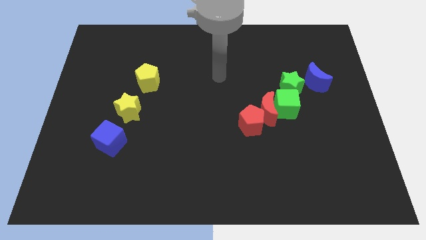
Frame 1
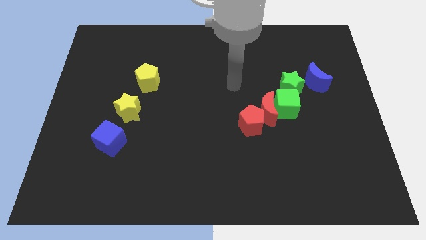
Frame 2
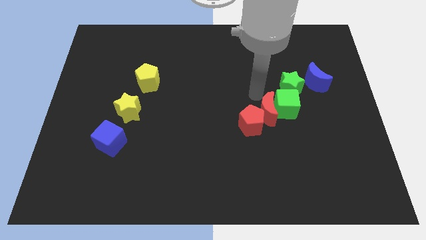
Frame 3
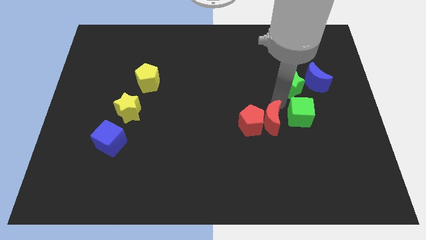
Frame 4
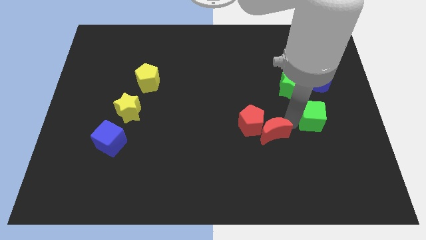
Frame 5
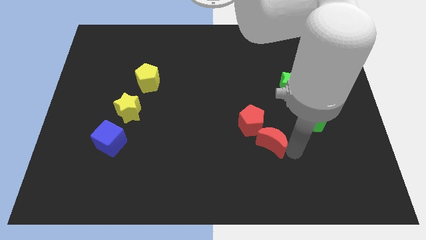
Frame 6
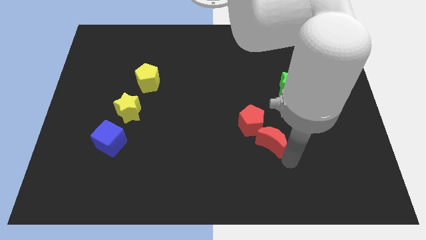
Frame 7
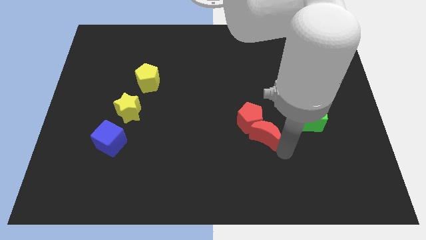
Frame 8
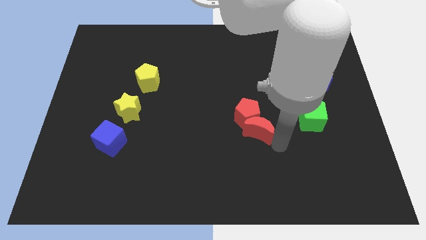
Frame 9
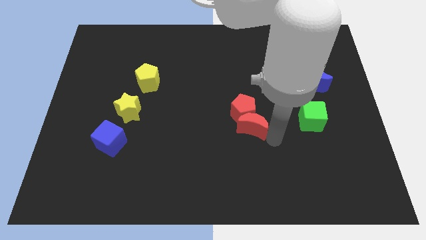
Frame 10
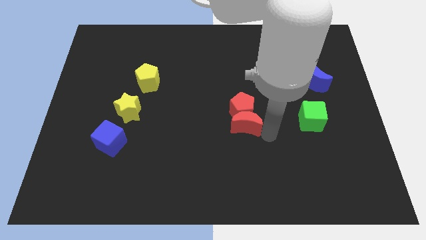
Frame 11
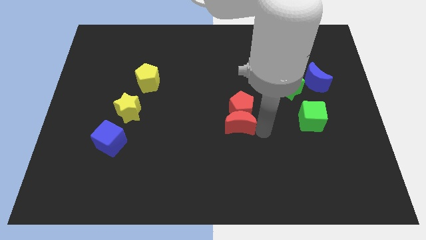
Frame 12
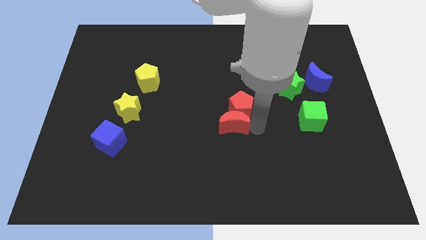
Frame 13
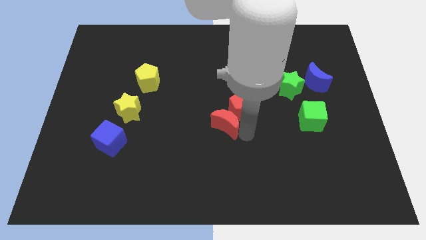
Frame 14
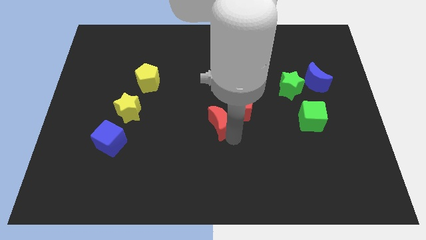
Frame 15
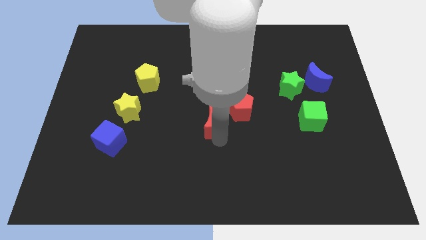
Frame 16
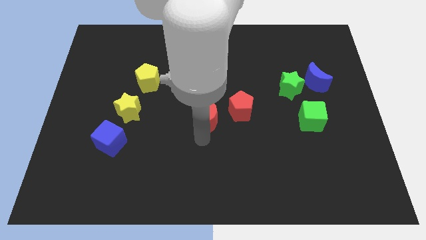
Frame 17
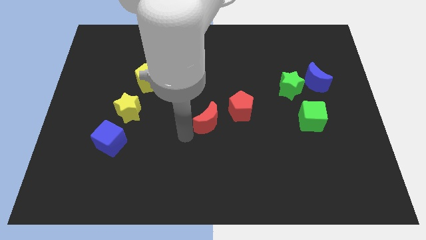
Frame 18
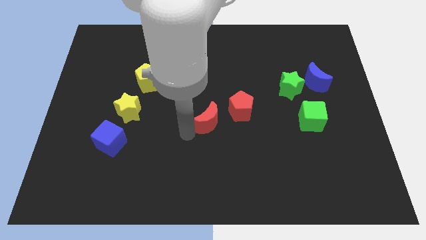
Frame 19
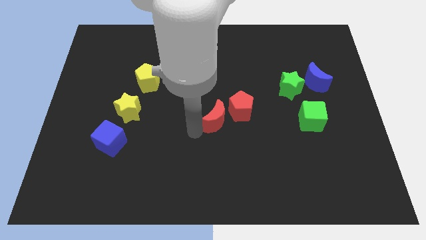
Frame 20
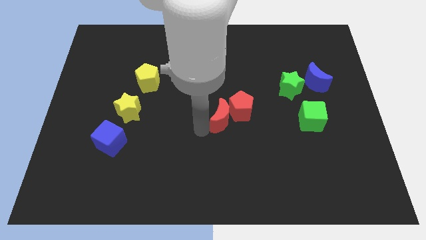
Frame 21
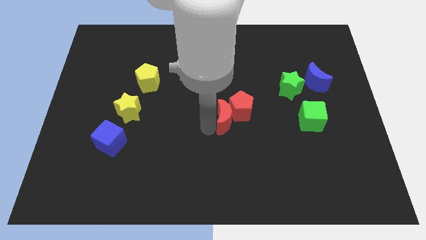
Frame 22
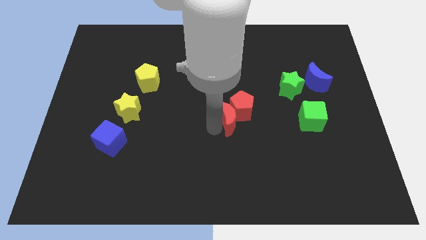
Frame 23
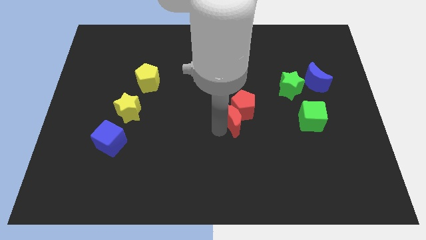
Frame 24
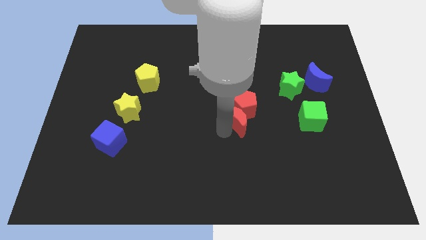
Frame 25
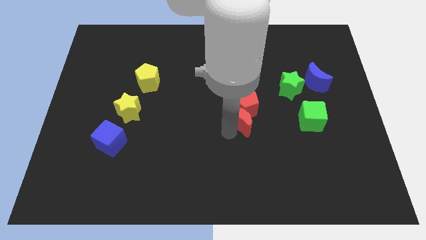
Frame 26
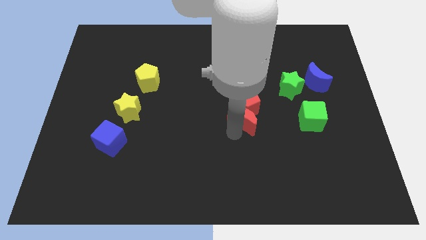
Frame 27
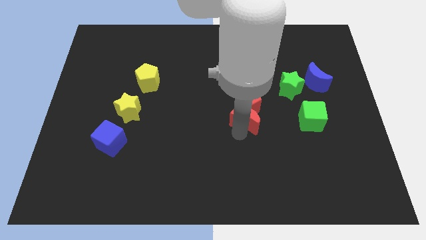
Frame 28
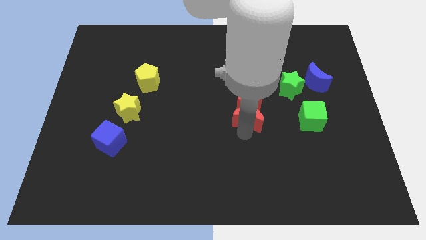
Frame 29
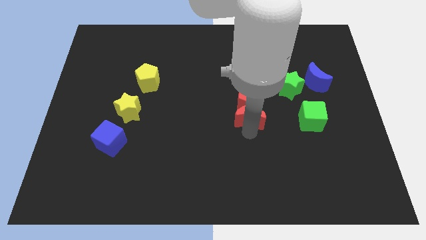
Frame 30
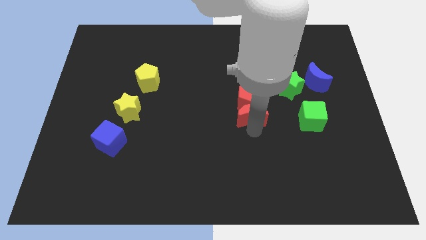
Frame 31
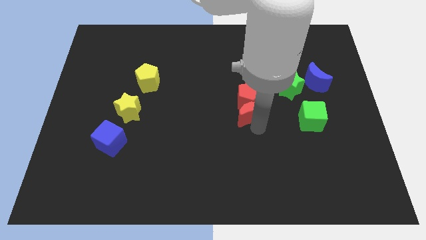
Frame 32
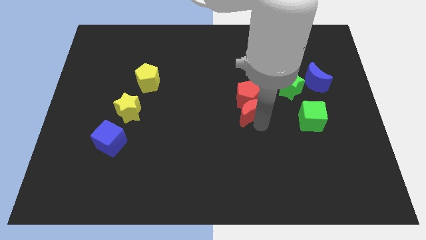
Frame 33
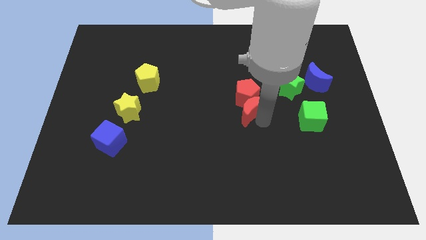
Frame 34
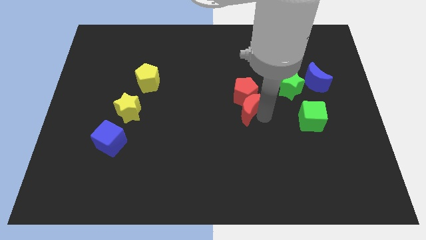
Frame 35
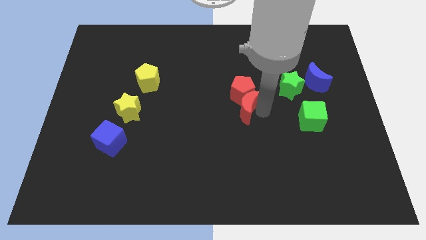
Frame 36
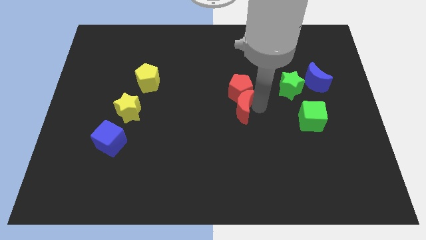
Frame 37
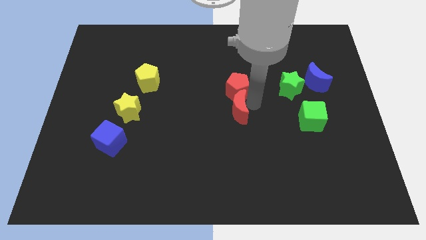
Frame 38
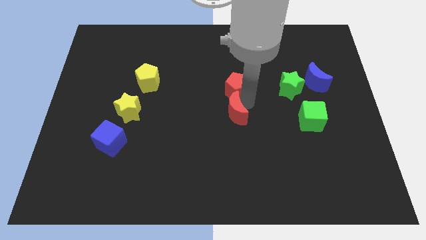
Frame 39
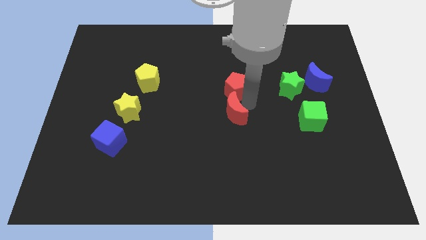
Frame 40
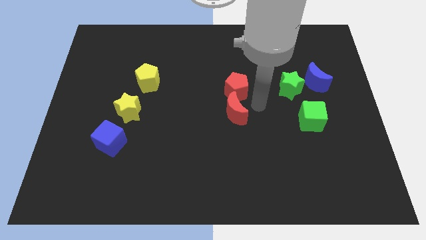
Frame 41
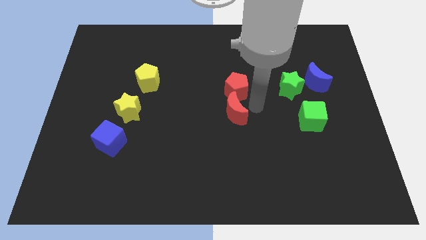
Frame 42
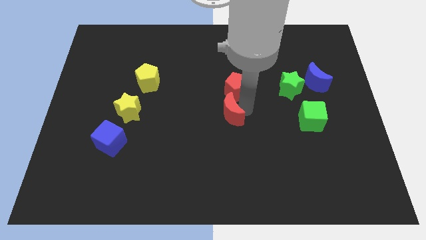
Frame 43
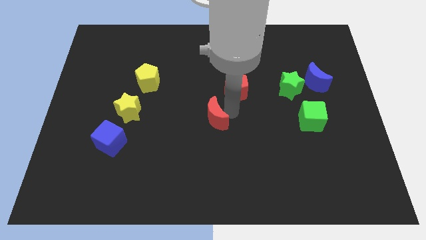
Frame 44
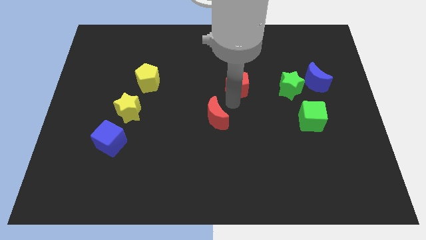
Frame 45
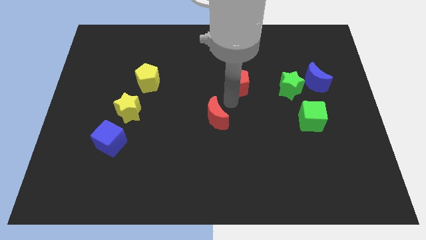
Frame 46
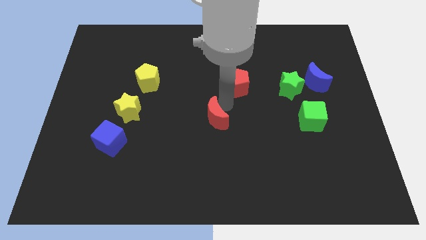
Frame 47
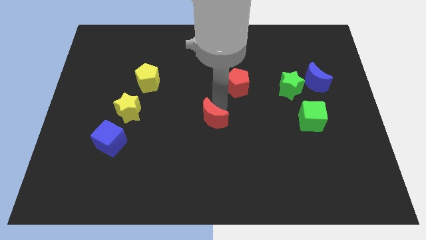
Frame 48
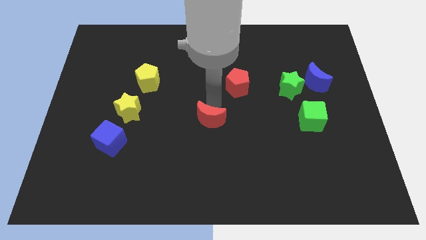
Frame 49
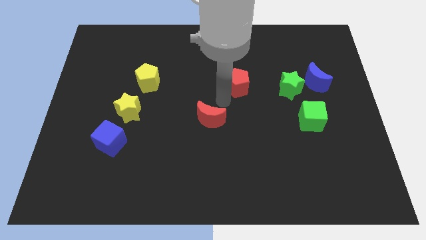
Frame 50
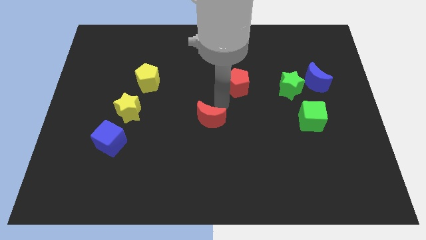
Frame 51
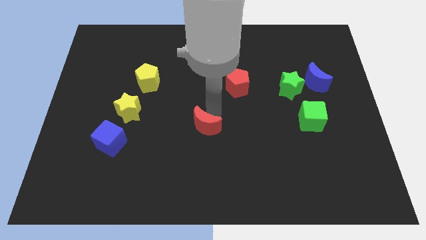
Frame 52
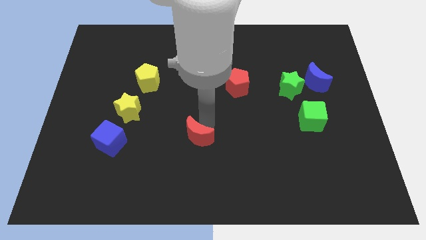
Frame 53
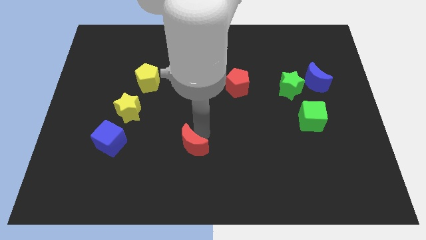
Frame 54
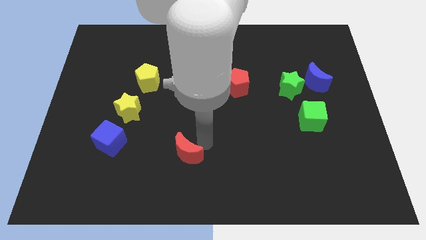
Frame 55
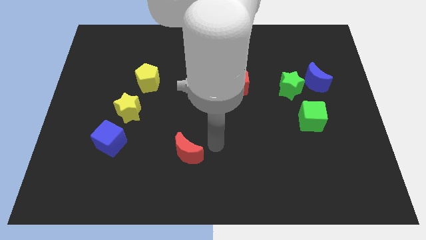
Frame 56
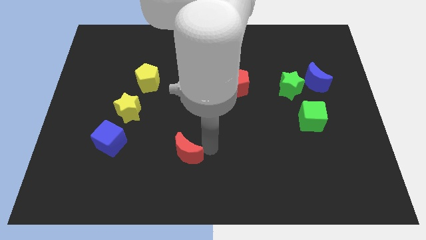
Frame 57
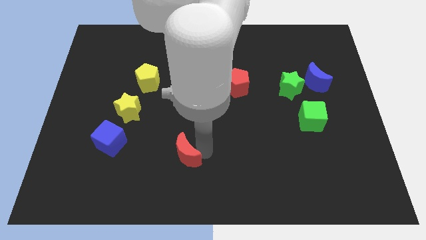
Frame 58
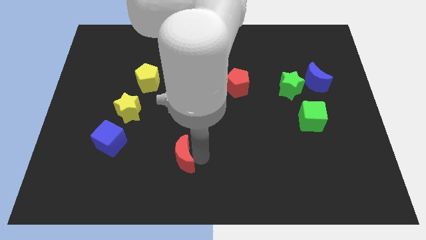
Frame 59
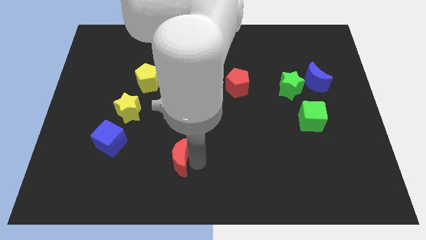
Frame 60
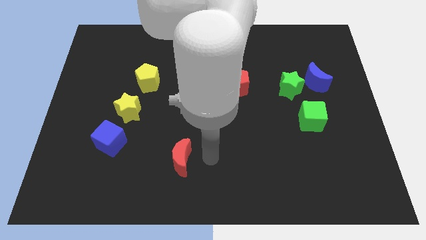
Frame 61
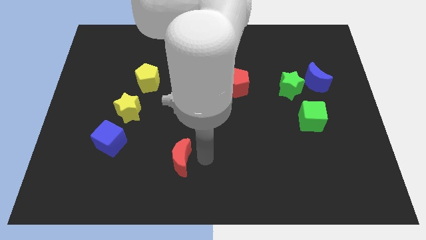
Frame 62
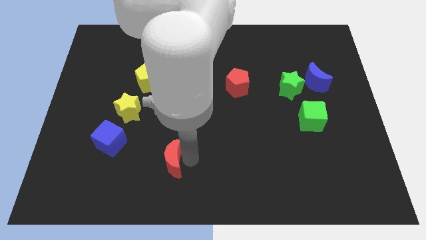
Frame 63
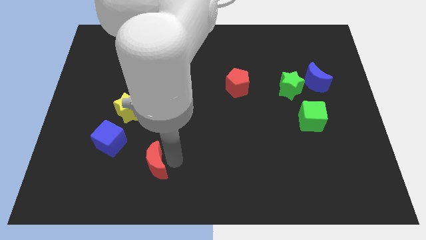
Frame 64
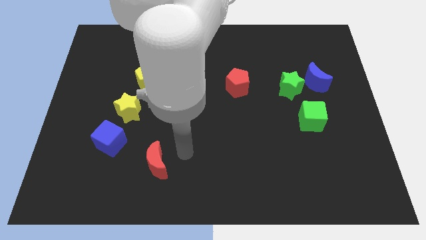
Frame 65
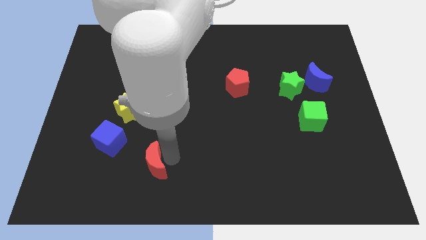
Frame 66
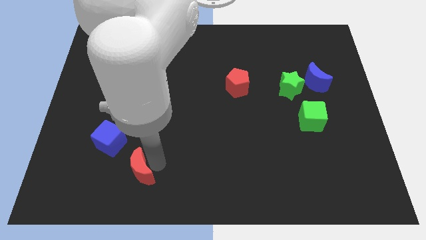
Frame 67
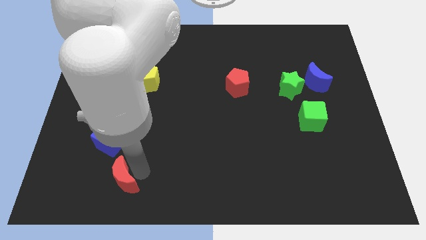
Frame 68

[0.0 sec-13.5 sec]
put the red moon to the bottom side of the blue cube
